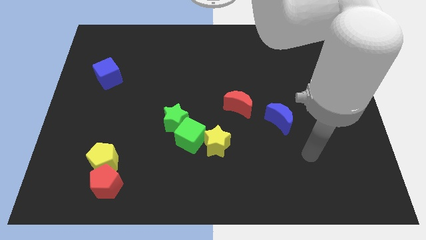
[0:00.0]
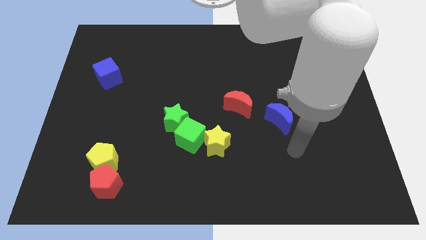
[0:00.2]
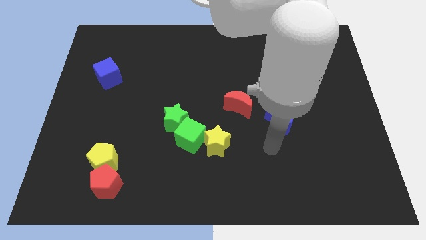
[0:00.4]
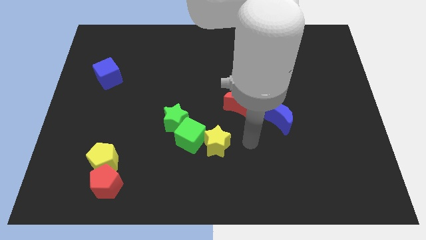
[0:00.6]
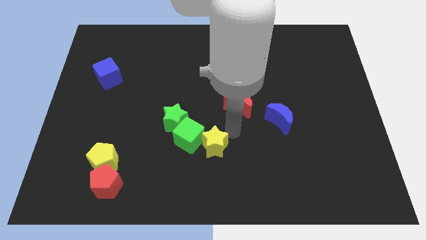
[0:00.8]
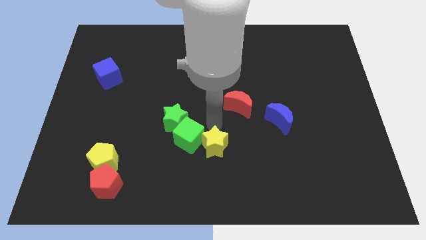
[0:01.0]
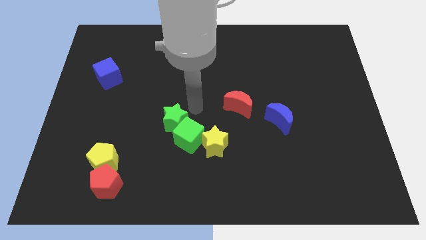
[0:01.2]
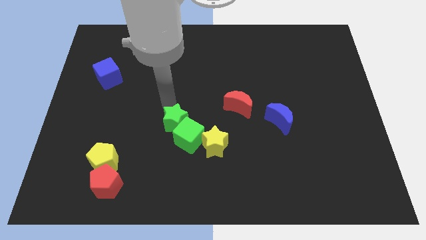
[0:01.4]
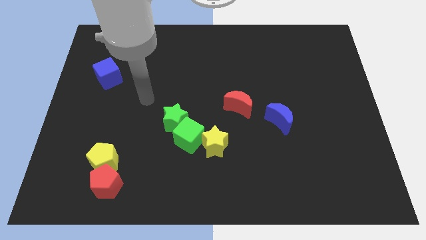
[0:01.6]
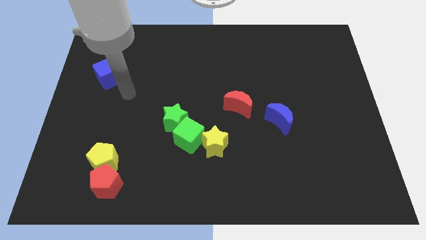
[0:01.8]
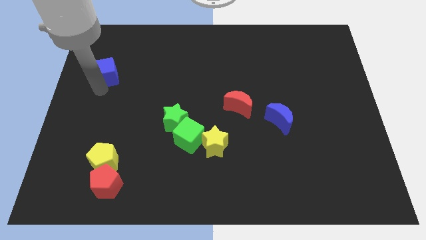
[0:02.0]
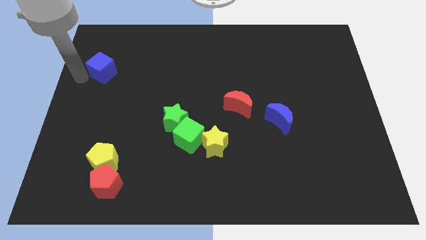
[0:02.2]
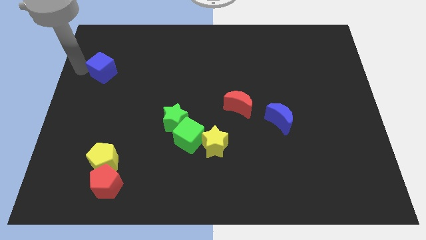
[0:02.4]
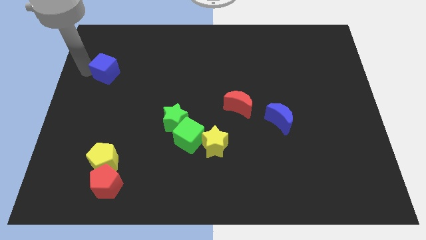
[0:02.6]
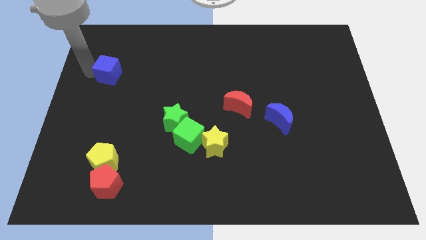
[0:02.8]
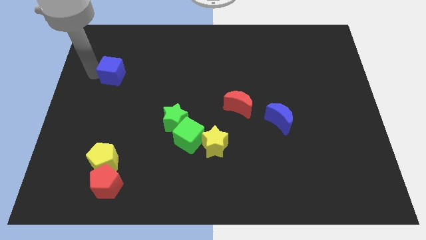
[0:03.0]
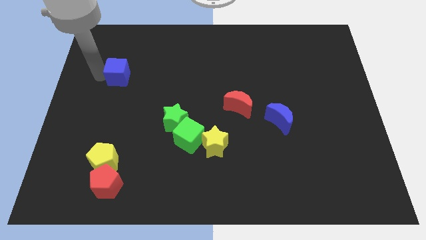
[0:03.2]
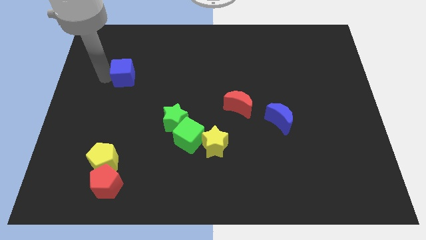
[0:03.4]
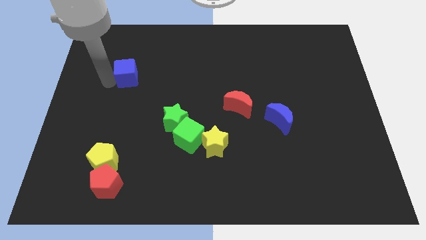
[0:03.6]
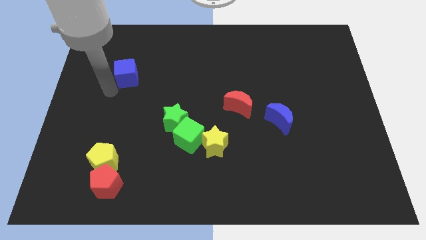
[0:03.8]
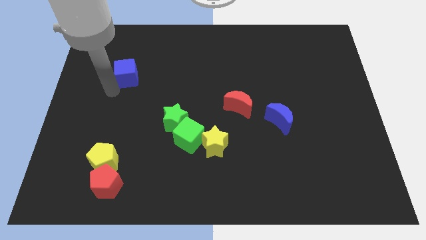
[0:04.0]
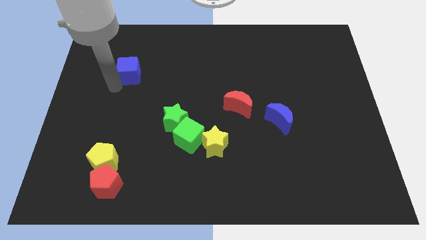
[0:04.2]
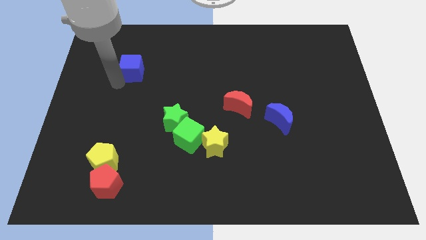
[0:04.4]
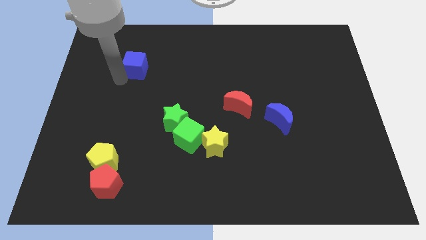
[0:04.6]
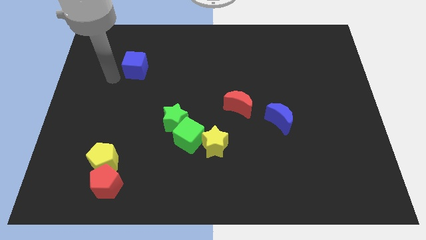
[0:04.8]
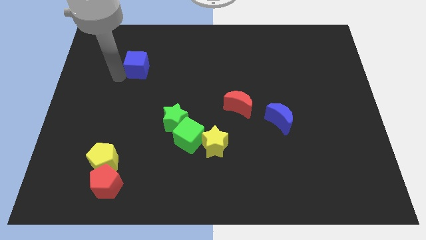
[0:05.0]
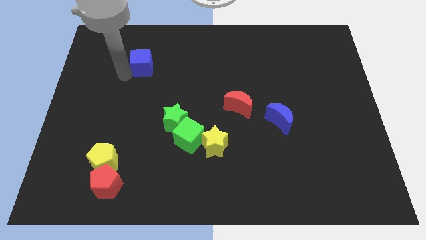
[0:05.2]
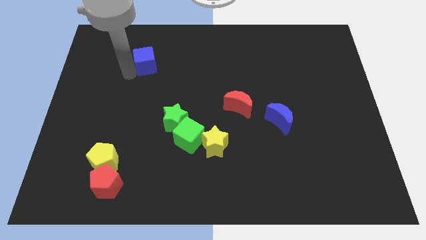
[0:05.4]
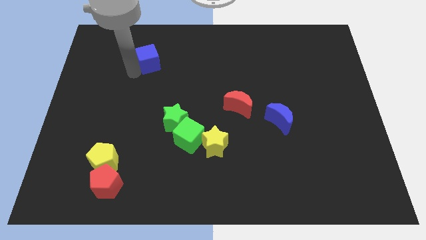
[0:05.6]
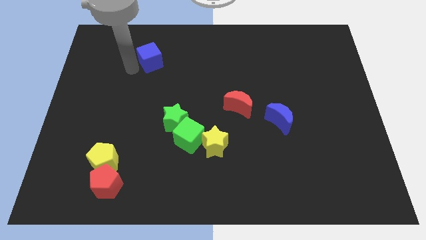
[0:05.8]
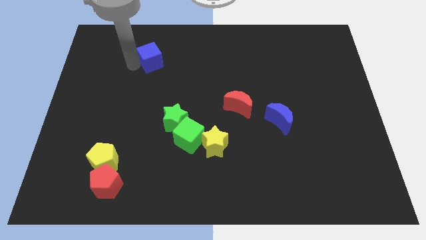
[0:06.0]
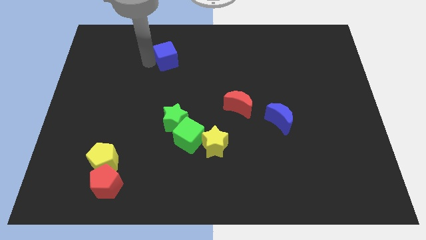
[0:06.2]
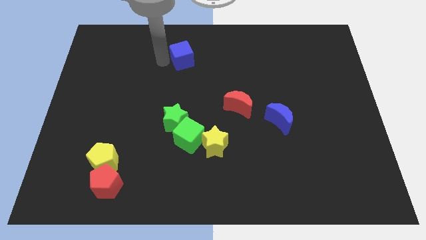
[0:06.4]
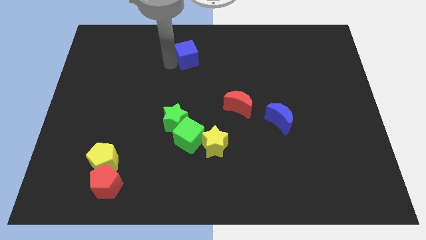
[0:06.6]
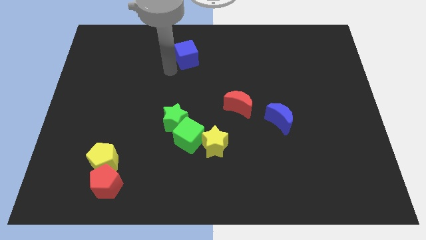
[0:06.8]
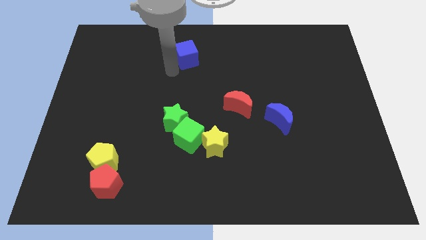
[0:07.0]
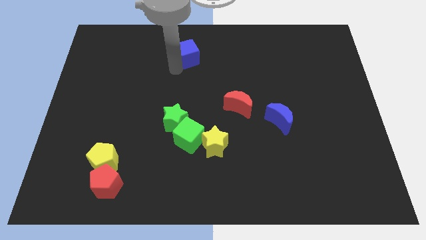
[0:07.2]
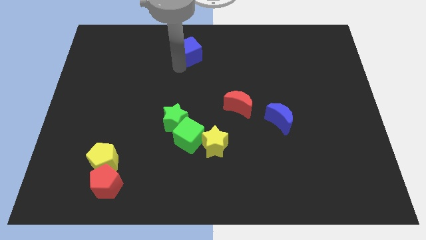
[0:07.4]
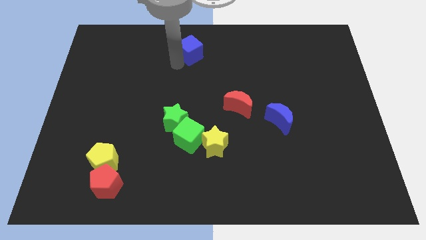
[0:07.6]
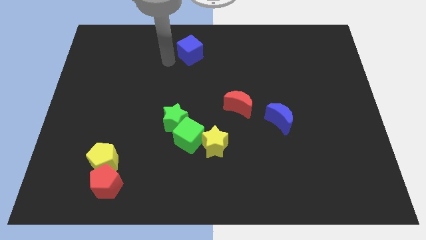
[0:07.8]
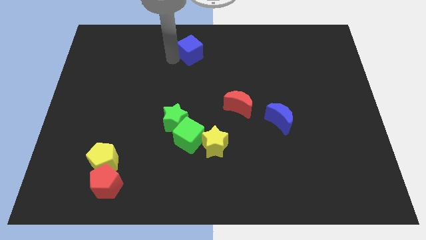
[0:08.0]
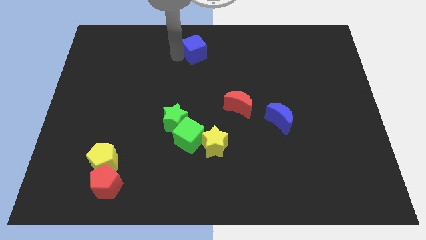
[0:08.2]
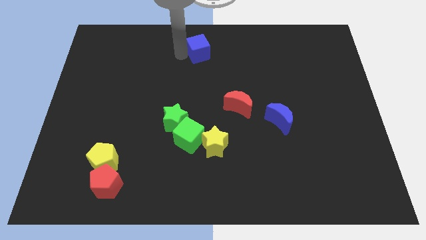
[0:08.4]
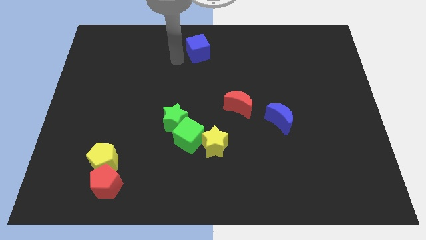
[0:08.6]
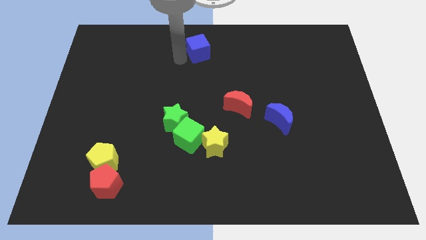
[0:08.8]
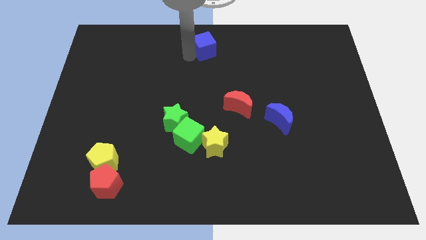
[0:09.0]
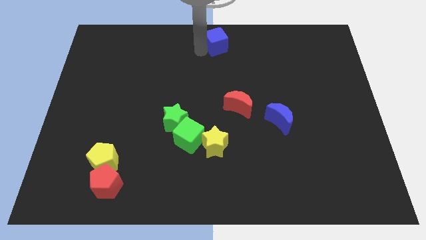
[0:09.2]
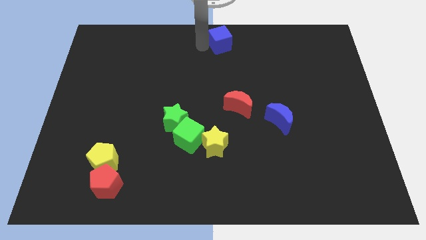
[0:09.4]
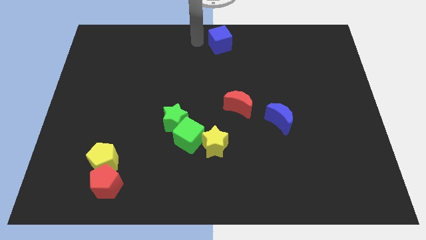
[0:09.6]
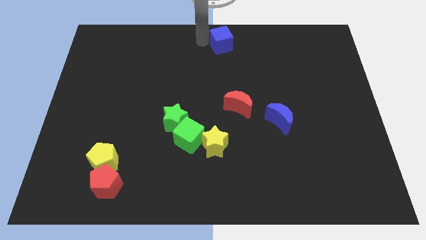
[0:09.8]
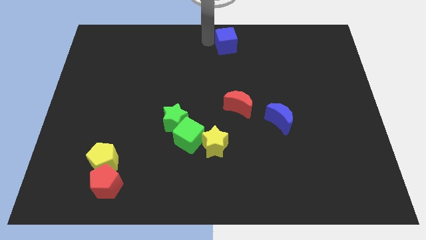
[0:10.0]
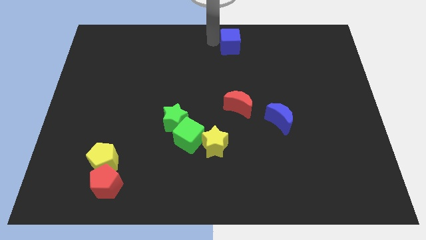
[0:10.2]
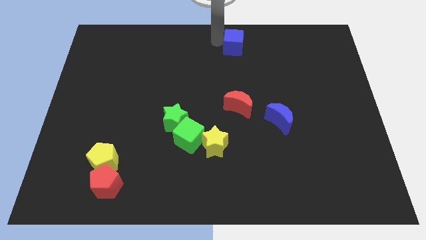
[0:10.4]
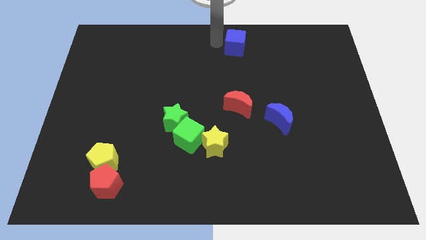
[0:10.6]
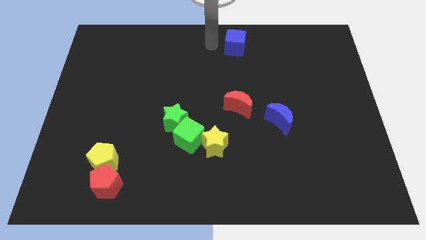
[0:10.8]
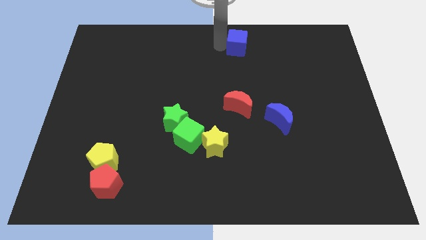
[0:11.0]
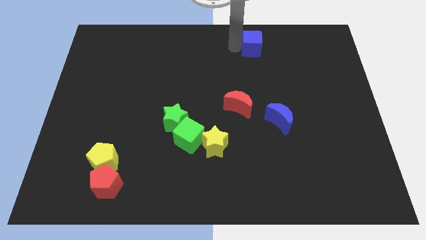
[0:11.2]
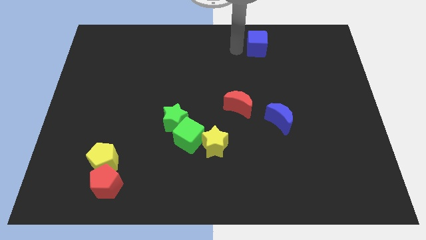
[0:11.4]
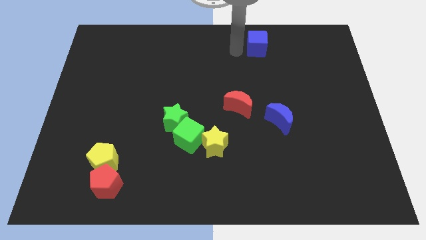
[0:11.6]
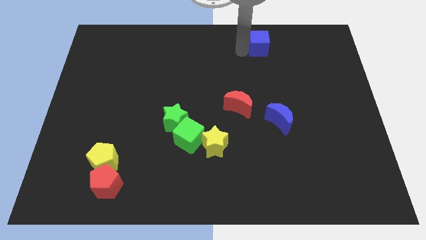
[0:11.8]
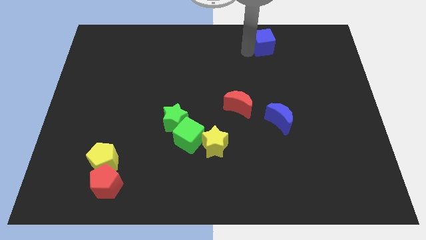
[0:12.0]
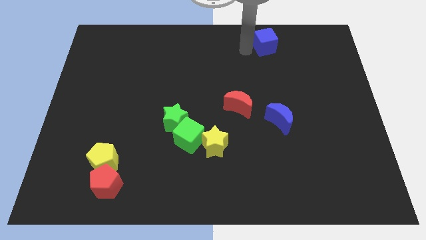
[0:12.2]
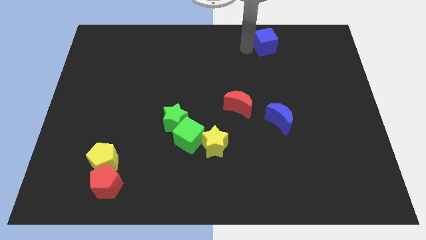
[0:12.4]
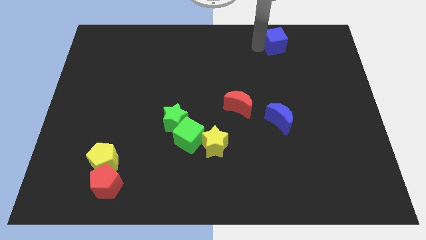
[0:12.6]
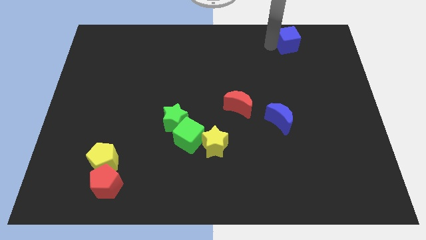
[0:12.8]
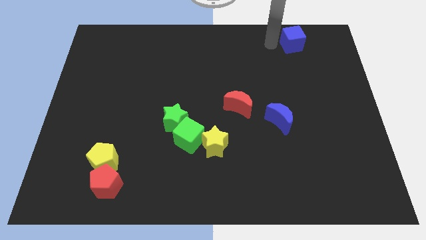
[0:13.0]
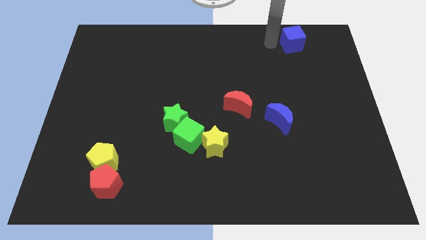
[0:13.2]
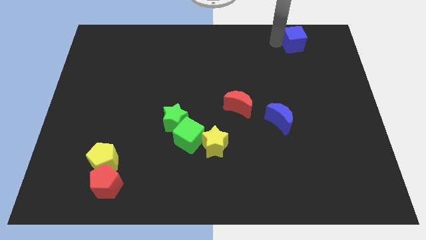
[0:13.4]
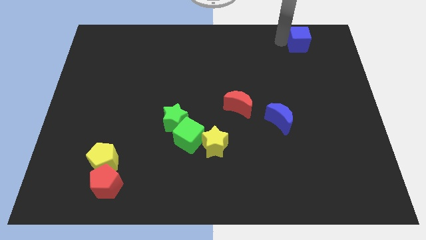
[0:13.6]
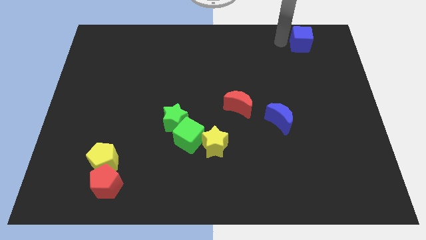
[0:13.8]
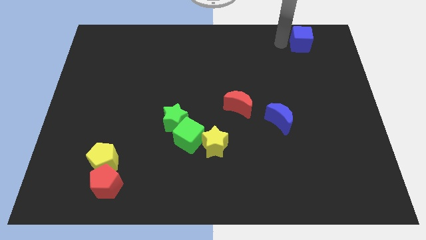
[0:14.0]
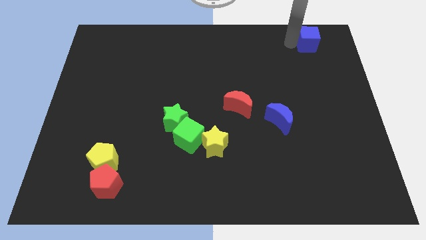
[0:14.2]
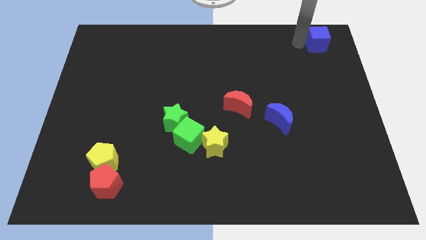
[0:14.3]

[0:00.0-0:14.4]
push the blue cube to the top right corner
